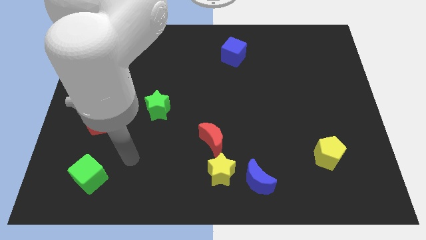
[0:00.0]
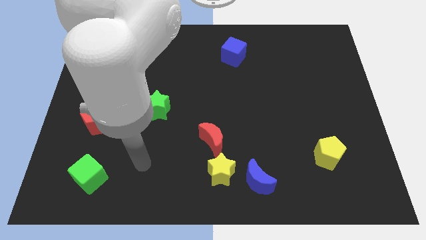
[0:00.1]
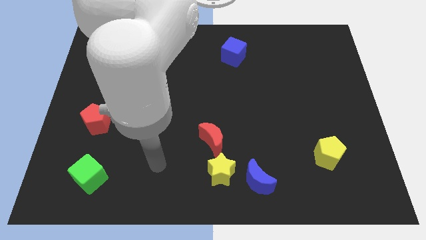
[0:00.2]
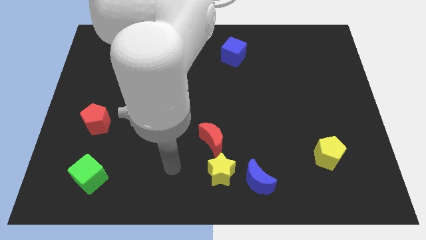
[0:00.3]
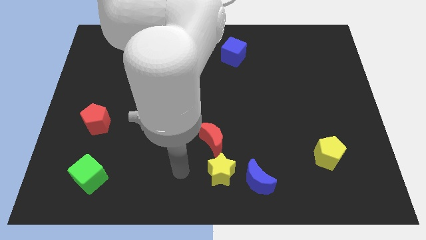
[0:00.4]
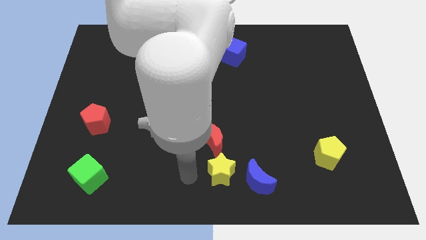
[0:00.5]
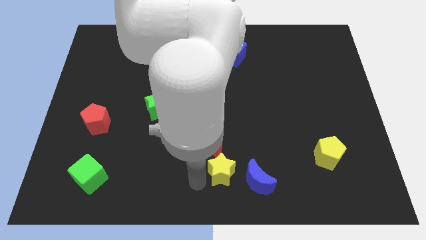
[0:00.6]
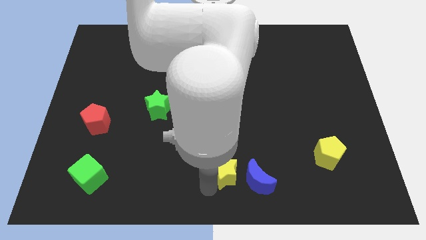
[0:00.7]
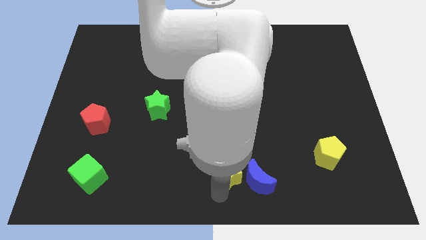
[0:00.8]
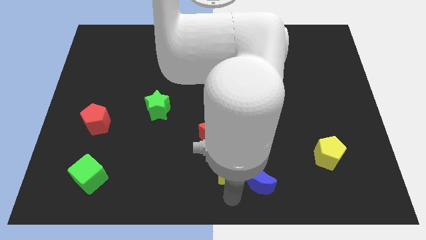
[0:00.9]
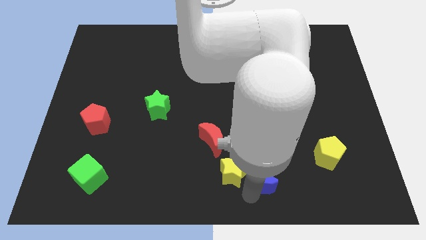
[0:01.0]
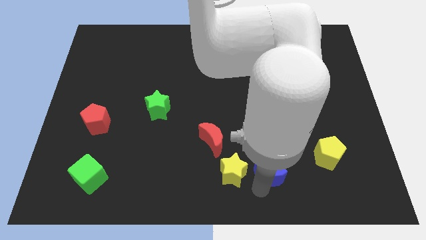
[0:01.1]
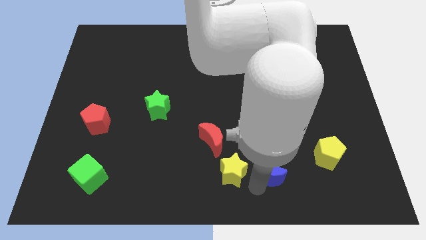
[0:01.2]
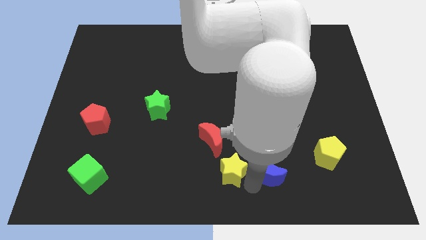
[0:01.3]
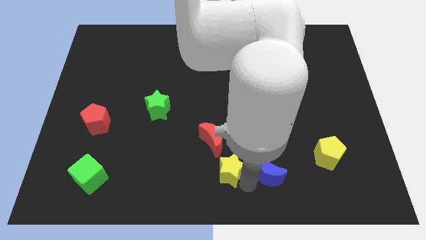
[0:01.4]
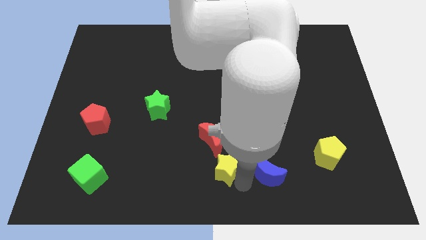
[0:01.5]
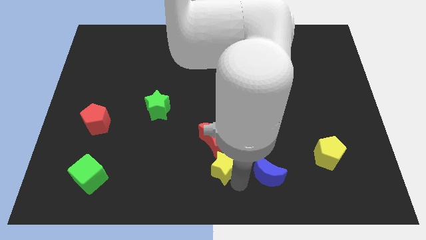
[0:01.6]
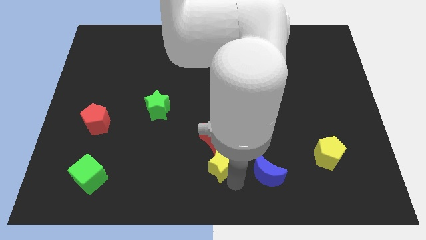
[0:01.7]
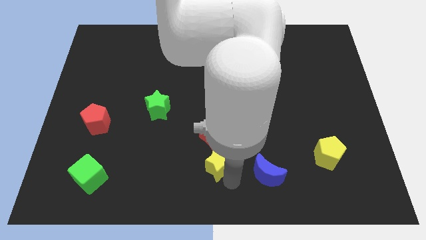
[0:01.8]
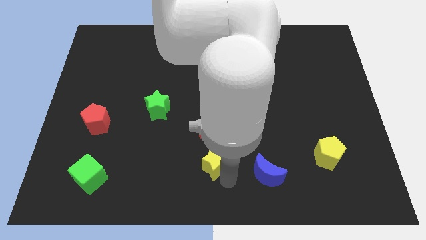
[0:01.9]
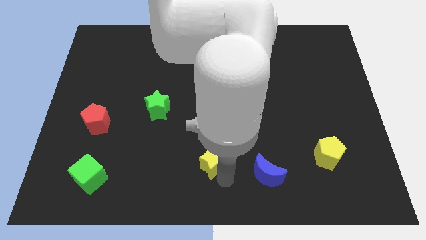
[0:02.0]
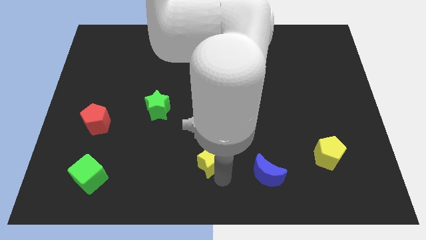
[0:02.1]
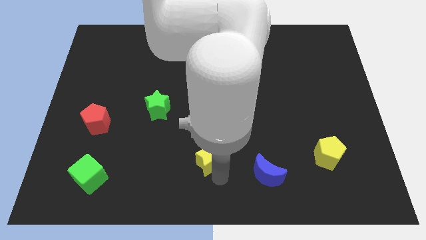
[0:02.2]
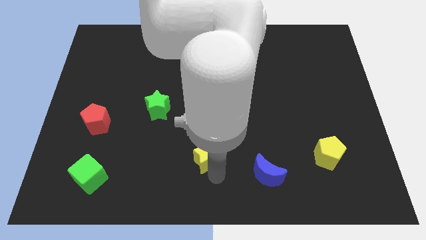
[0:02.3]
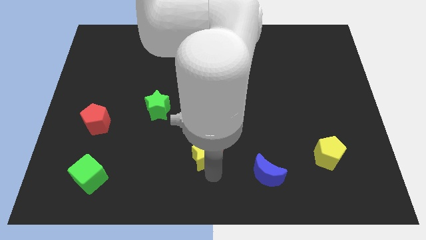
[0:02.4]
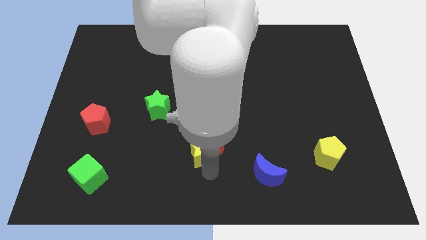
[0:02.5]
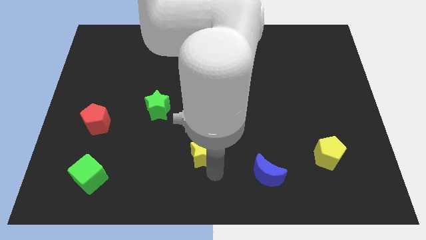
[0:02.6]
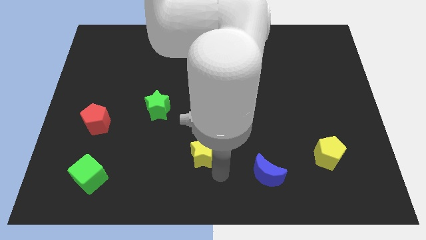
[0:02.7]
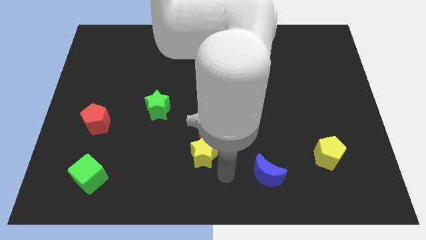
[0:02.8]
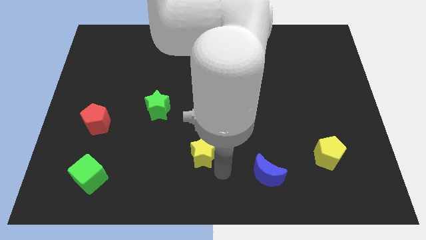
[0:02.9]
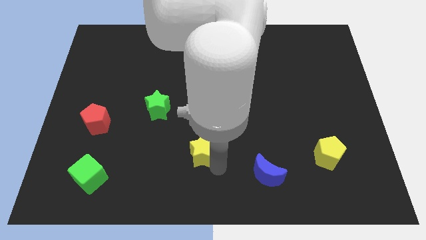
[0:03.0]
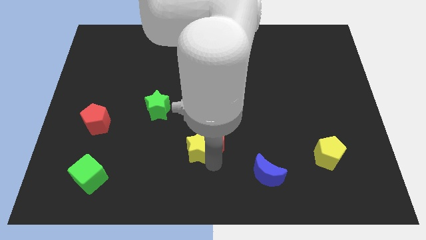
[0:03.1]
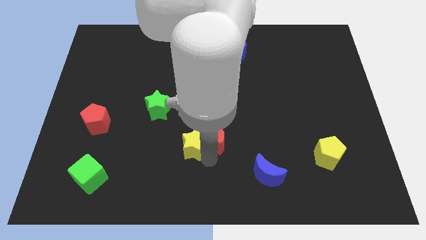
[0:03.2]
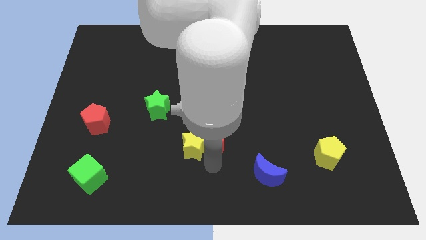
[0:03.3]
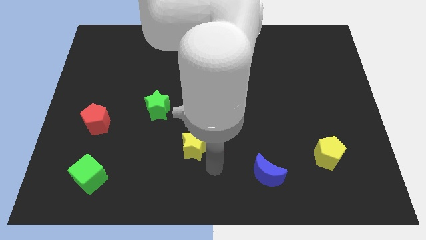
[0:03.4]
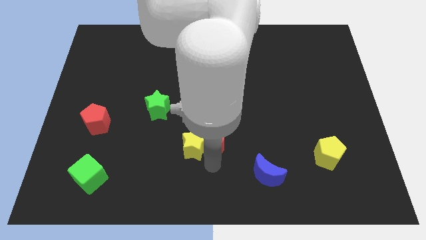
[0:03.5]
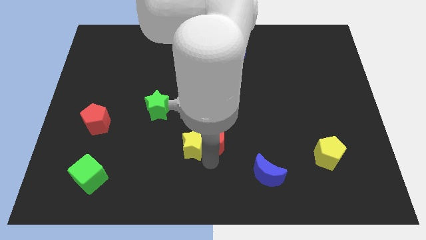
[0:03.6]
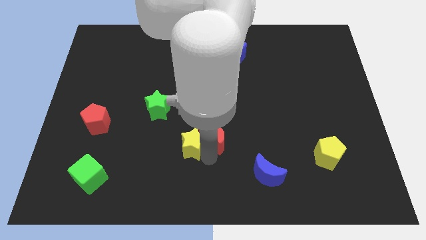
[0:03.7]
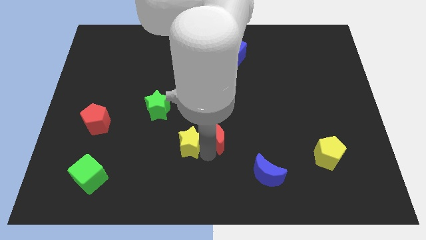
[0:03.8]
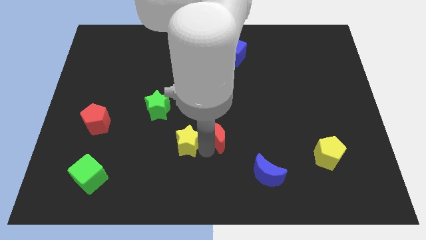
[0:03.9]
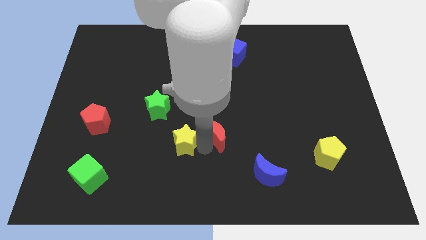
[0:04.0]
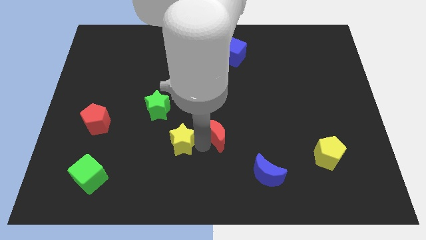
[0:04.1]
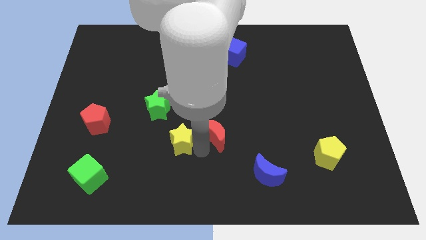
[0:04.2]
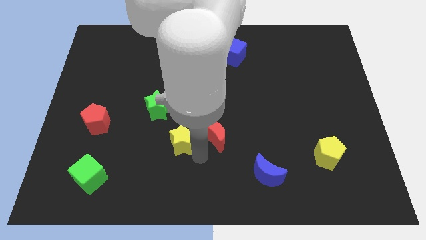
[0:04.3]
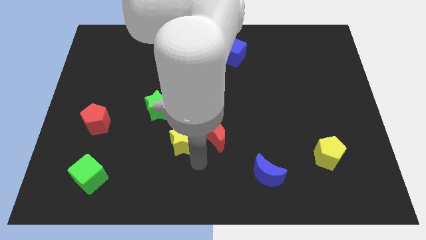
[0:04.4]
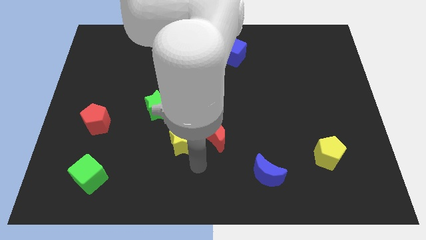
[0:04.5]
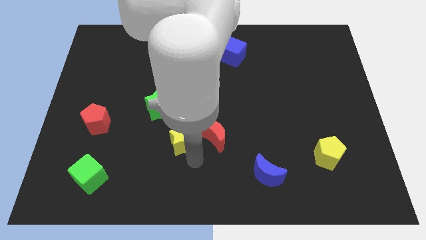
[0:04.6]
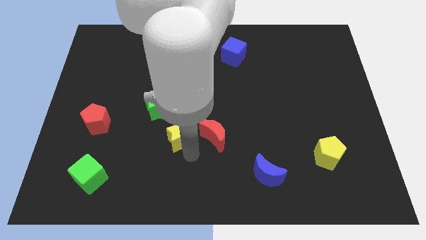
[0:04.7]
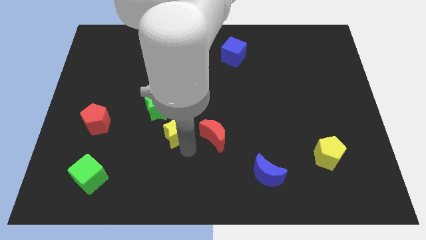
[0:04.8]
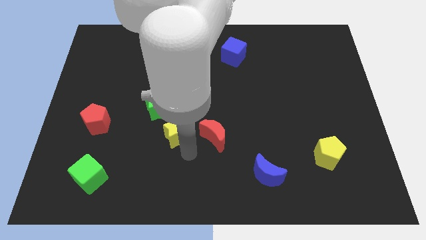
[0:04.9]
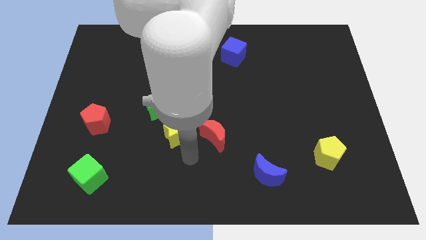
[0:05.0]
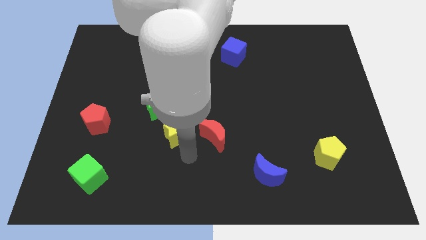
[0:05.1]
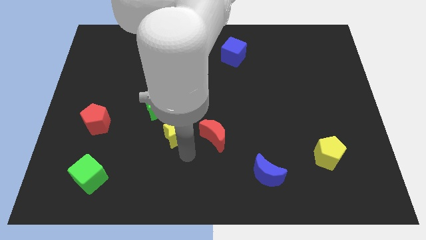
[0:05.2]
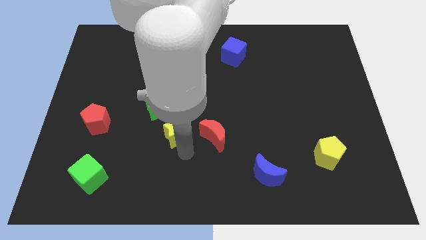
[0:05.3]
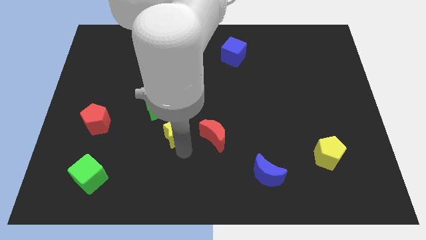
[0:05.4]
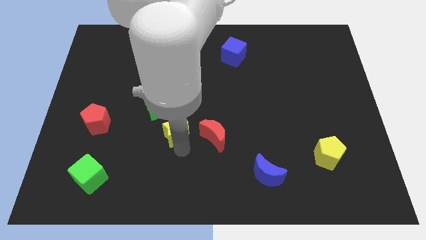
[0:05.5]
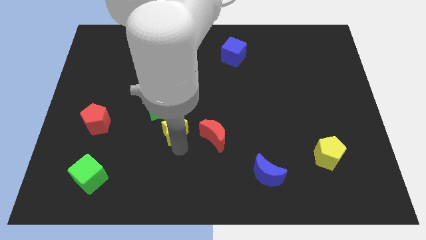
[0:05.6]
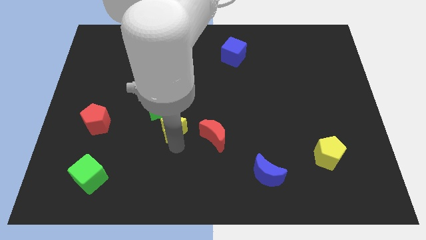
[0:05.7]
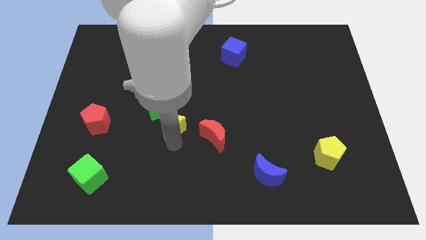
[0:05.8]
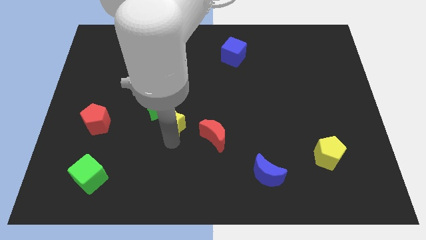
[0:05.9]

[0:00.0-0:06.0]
move the yellow star to the green star

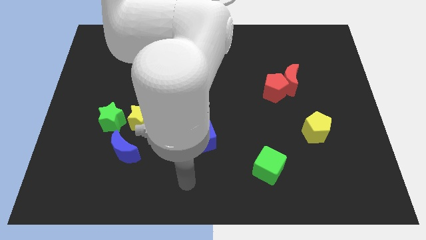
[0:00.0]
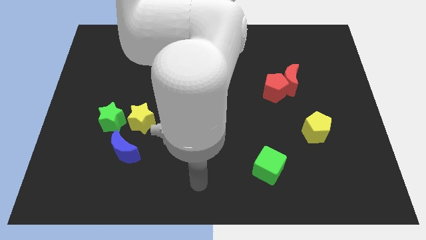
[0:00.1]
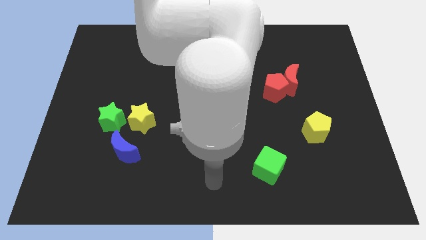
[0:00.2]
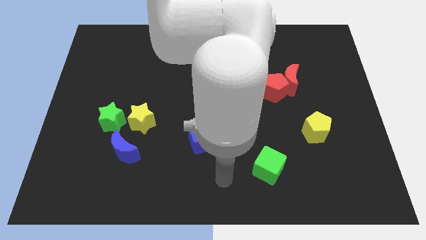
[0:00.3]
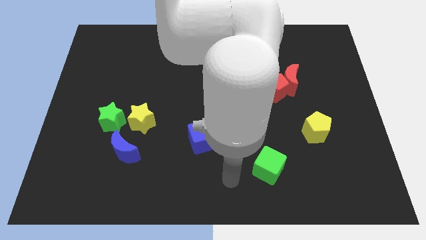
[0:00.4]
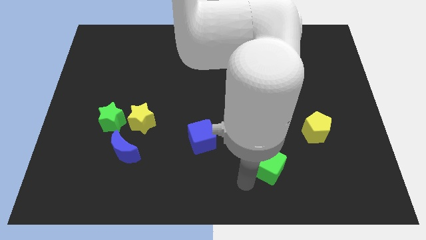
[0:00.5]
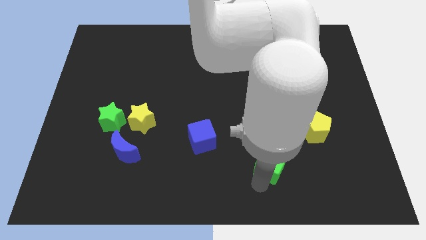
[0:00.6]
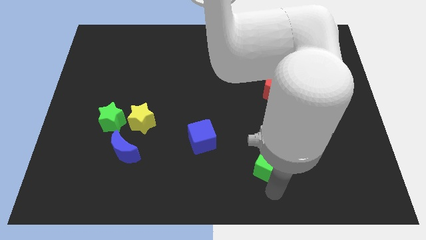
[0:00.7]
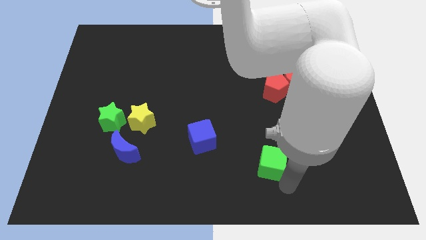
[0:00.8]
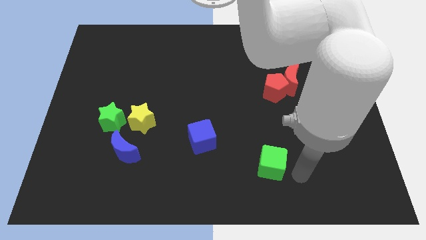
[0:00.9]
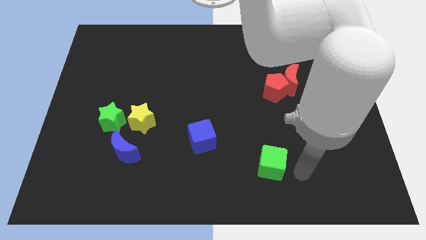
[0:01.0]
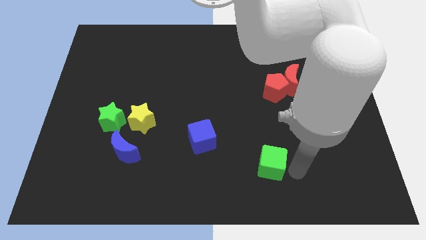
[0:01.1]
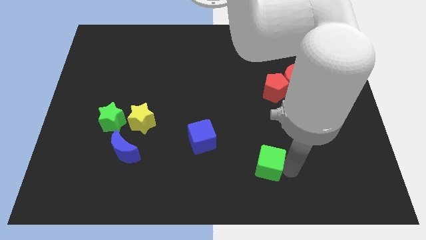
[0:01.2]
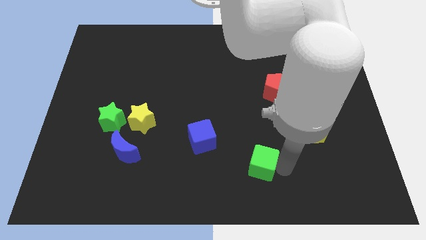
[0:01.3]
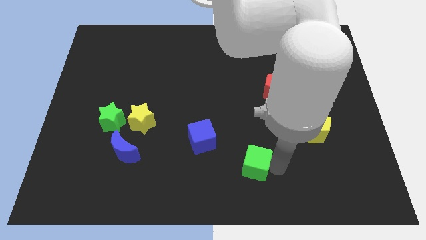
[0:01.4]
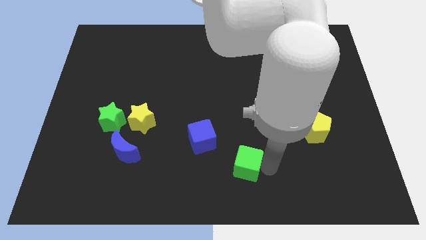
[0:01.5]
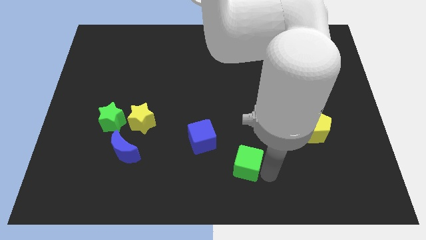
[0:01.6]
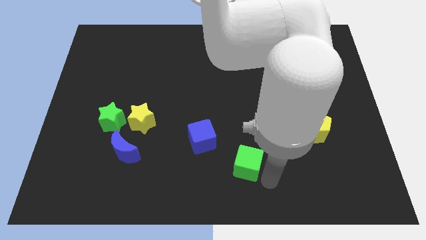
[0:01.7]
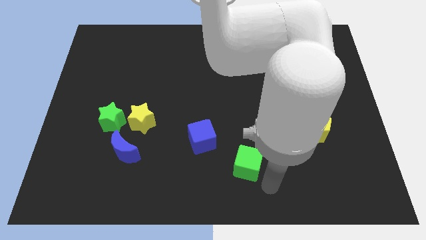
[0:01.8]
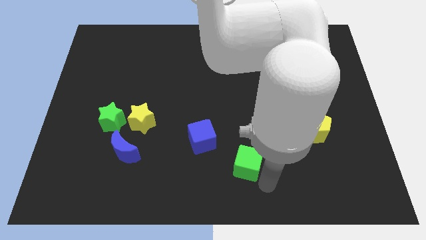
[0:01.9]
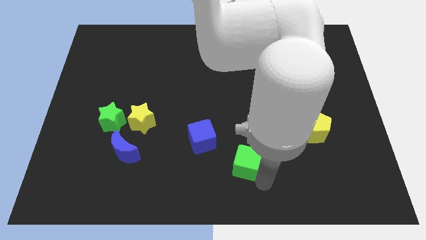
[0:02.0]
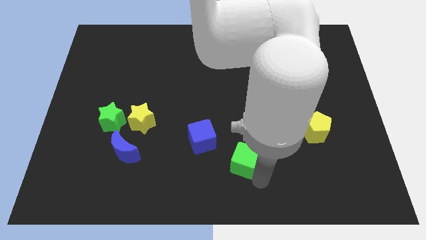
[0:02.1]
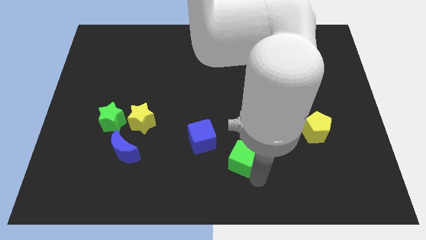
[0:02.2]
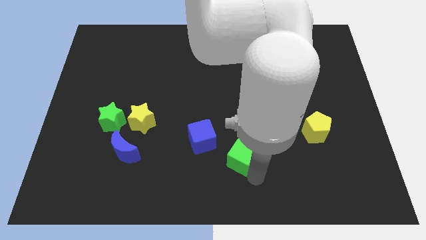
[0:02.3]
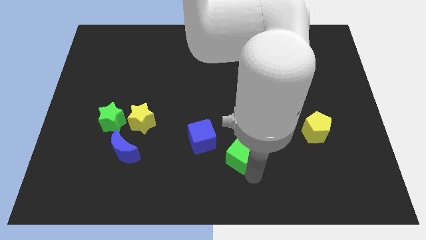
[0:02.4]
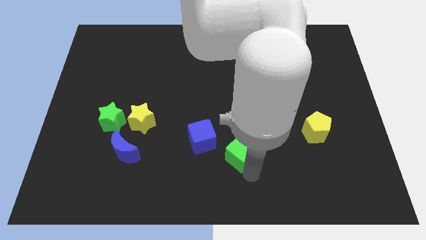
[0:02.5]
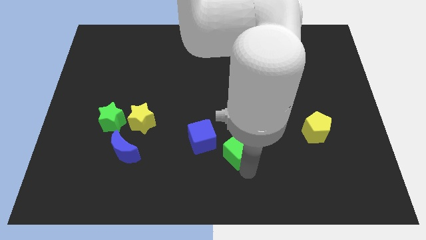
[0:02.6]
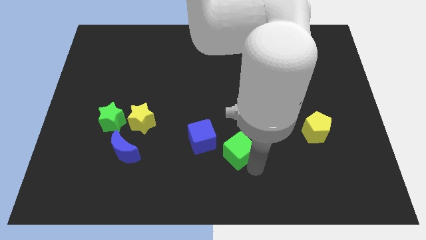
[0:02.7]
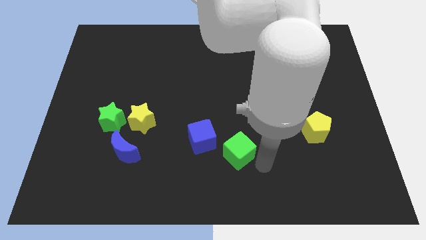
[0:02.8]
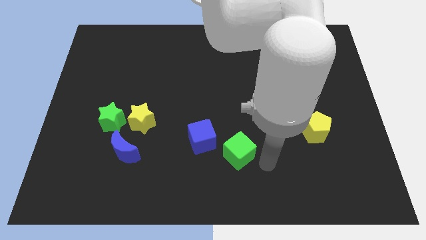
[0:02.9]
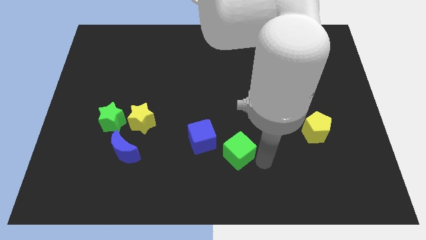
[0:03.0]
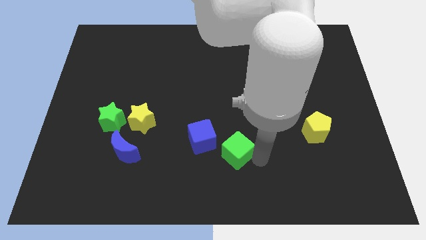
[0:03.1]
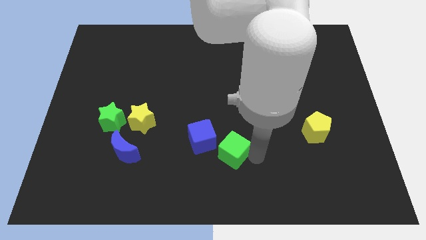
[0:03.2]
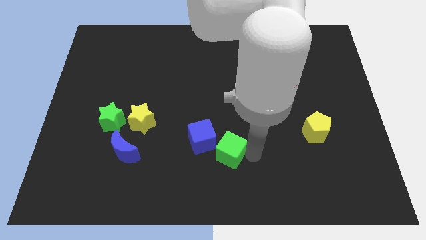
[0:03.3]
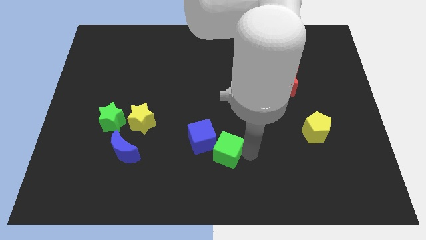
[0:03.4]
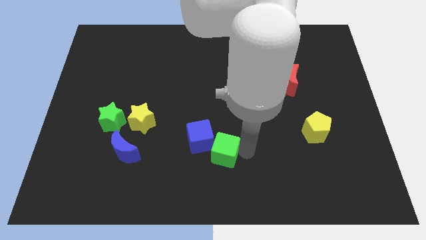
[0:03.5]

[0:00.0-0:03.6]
put the green cube close to the blue cube
